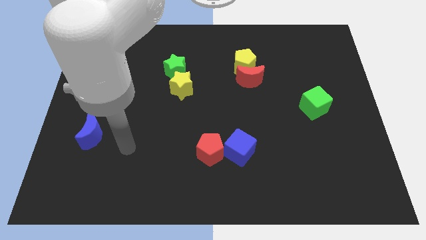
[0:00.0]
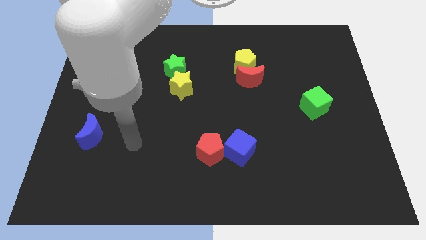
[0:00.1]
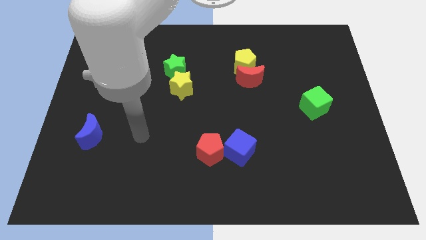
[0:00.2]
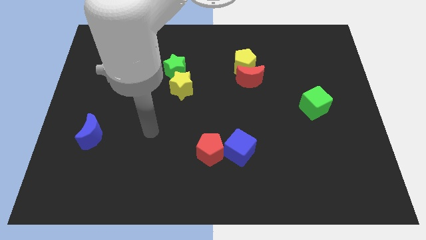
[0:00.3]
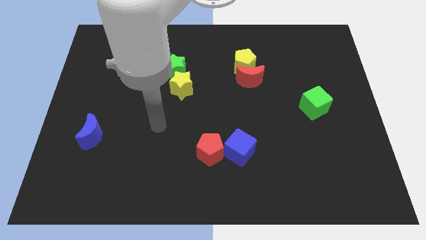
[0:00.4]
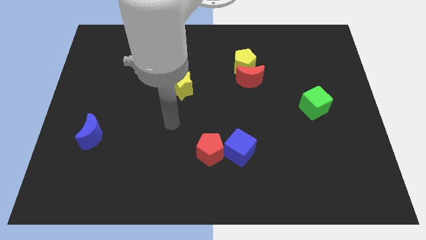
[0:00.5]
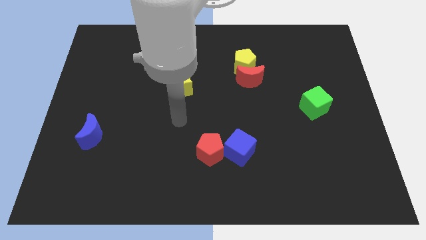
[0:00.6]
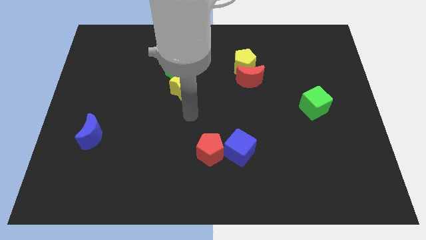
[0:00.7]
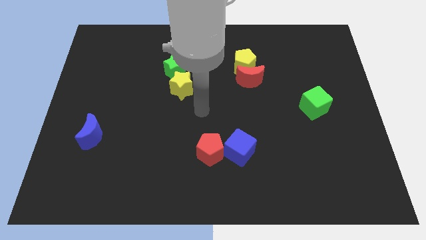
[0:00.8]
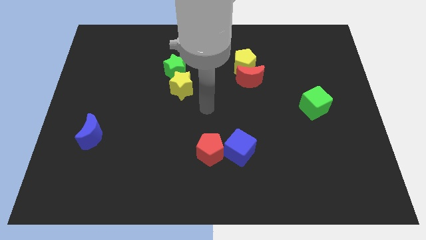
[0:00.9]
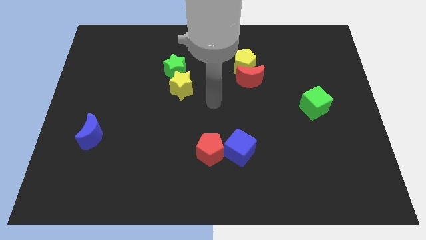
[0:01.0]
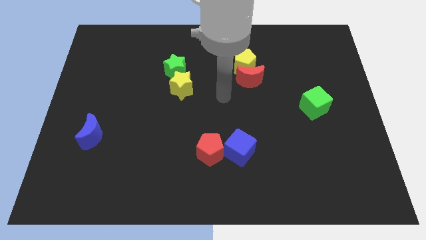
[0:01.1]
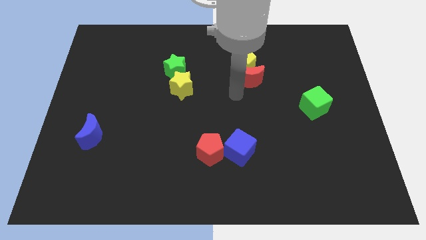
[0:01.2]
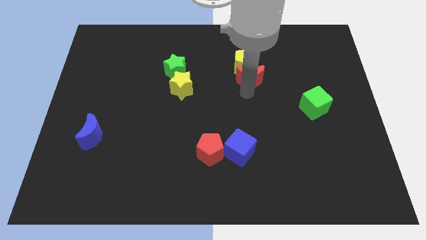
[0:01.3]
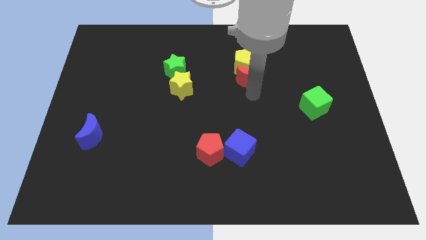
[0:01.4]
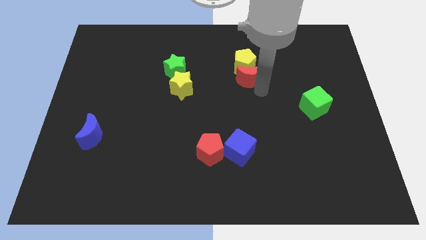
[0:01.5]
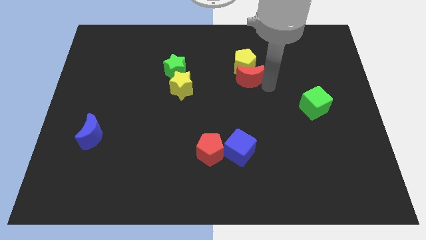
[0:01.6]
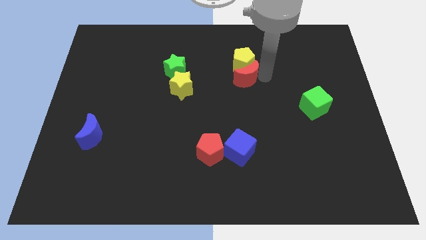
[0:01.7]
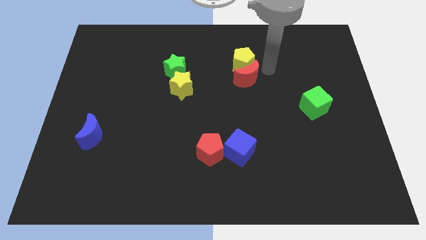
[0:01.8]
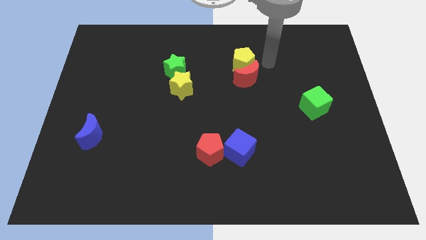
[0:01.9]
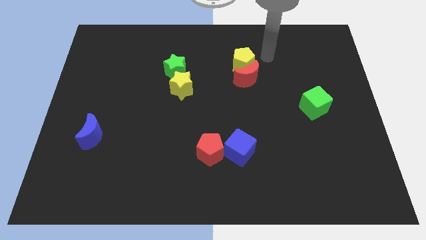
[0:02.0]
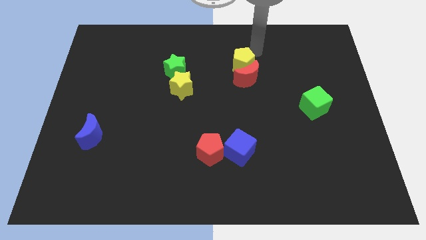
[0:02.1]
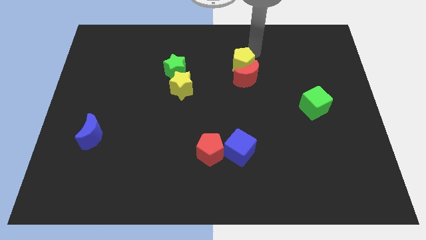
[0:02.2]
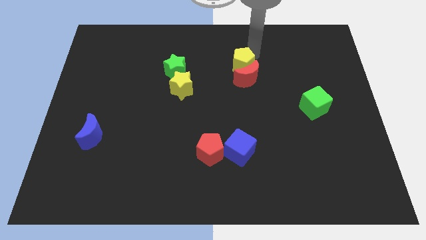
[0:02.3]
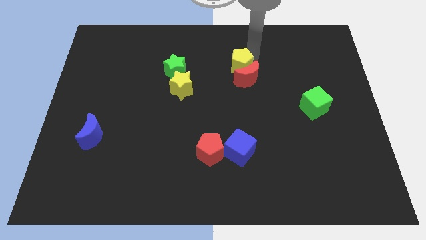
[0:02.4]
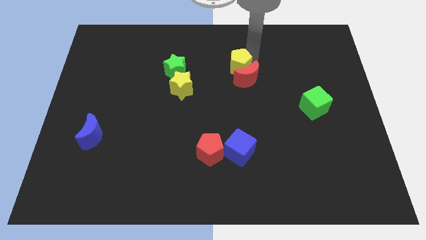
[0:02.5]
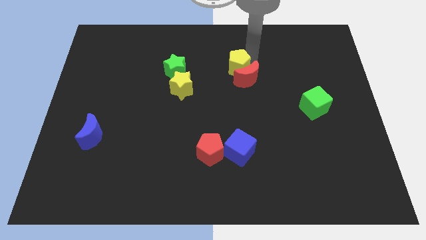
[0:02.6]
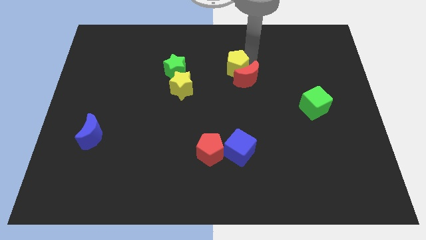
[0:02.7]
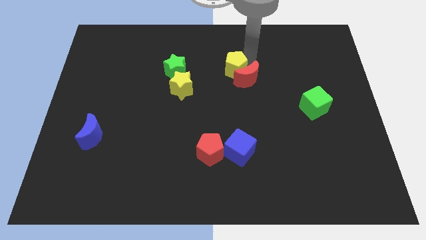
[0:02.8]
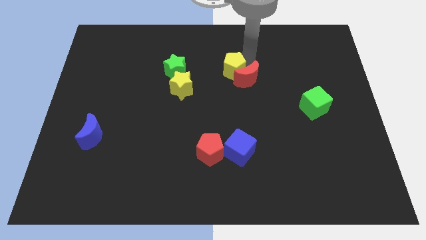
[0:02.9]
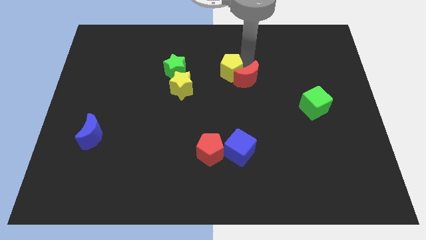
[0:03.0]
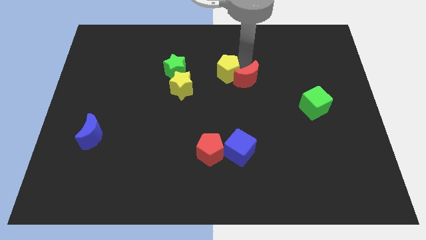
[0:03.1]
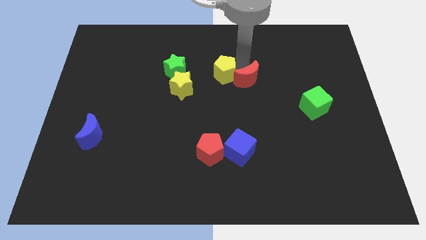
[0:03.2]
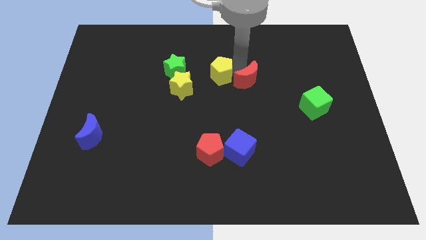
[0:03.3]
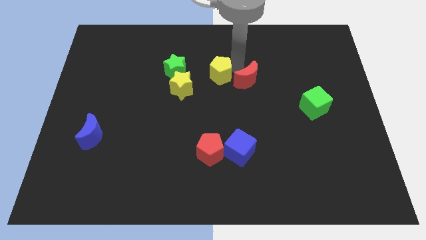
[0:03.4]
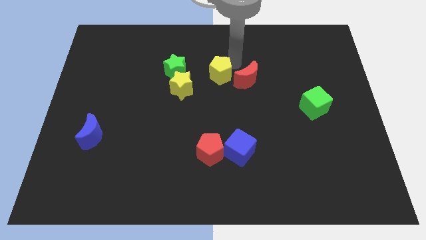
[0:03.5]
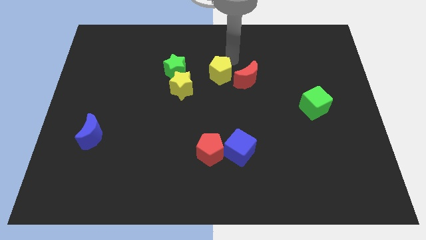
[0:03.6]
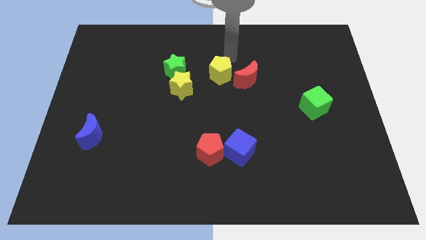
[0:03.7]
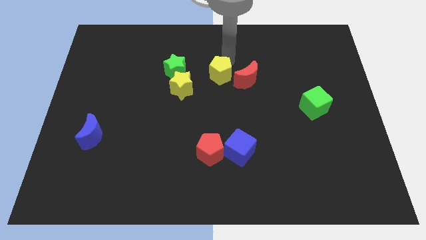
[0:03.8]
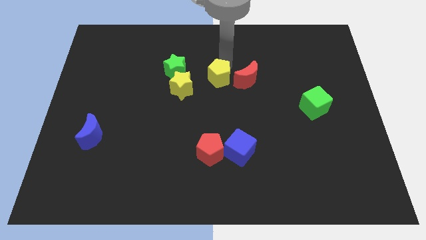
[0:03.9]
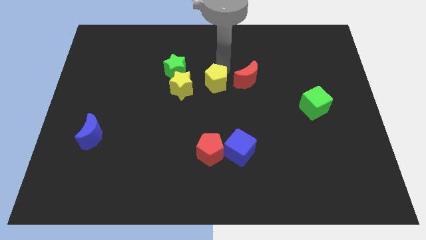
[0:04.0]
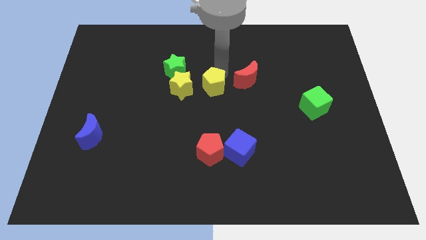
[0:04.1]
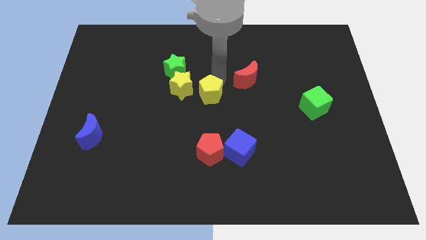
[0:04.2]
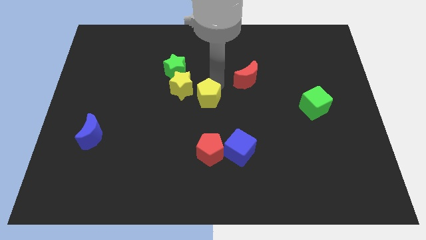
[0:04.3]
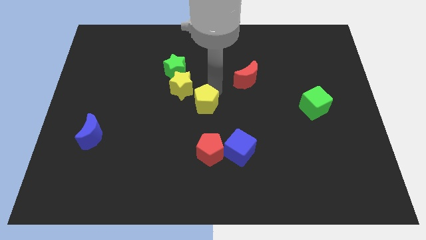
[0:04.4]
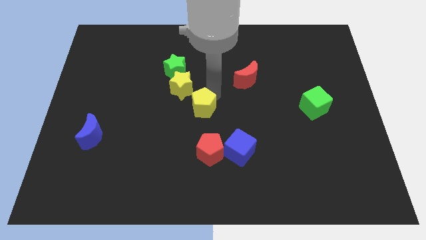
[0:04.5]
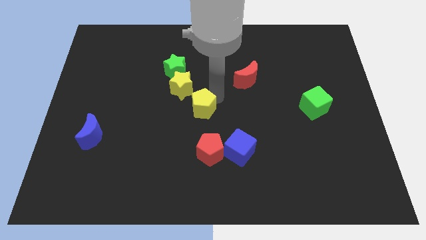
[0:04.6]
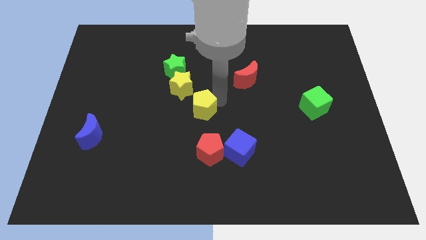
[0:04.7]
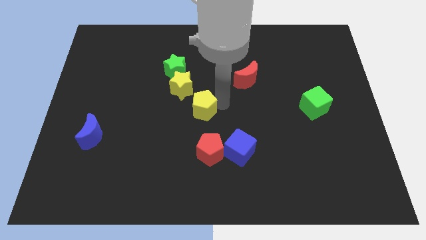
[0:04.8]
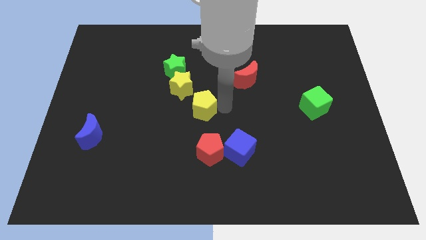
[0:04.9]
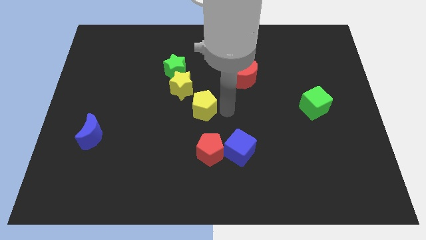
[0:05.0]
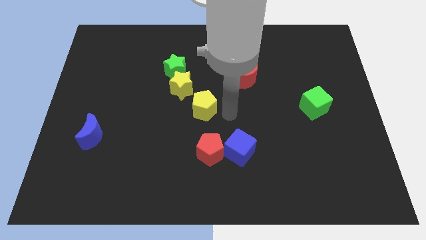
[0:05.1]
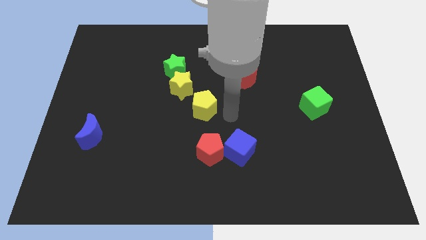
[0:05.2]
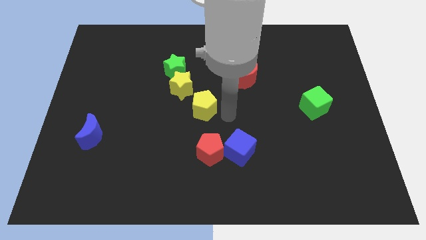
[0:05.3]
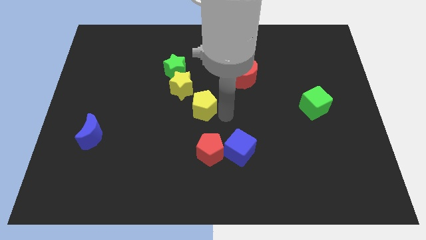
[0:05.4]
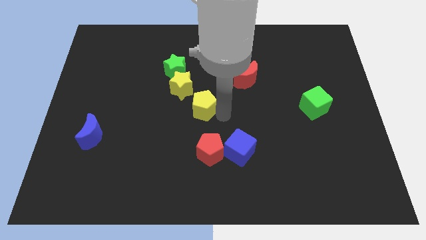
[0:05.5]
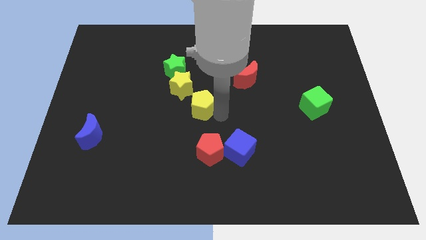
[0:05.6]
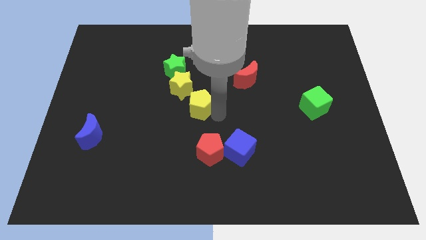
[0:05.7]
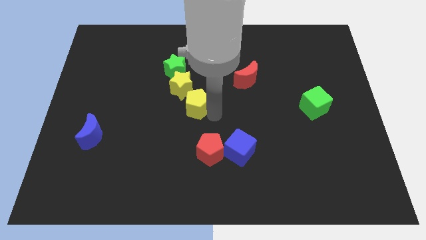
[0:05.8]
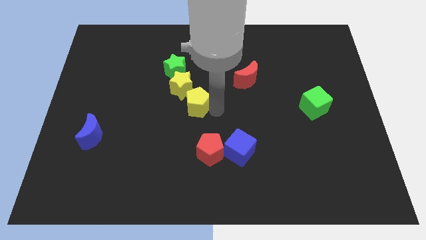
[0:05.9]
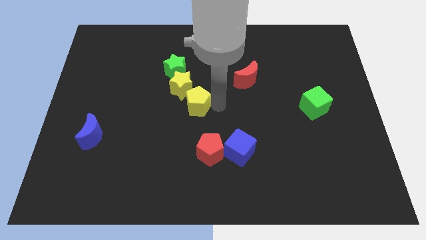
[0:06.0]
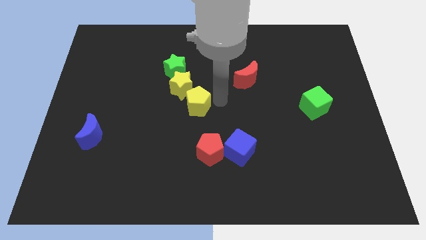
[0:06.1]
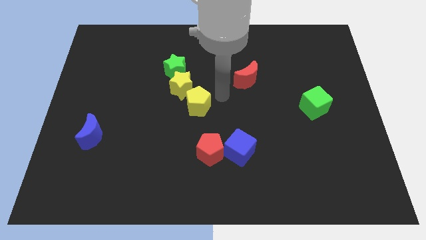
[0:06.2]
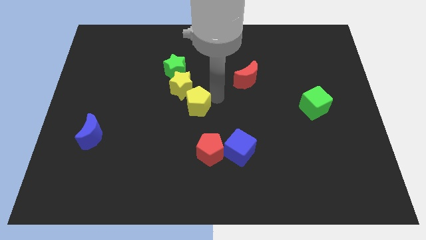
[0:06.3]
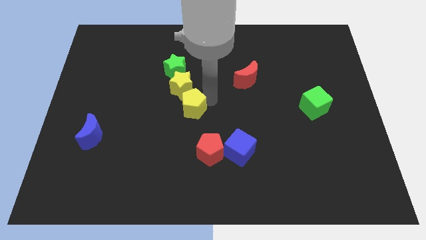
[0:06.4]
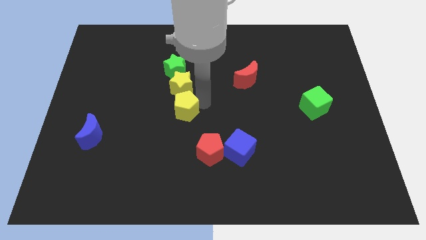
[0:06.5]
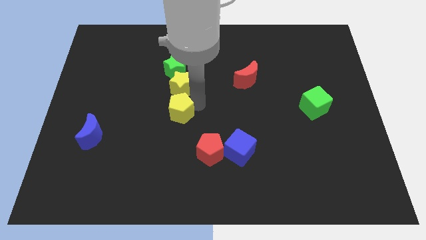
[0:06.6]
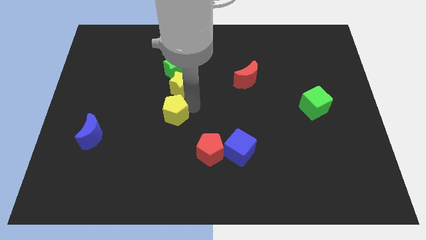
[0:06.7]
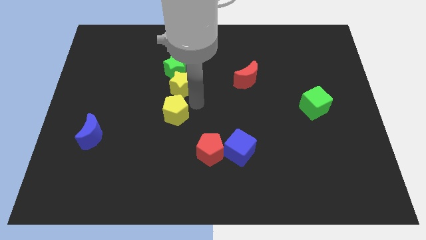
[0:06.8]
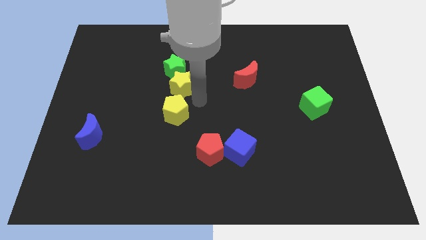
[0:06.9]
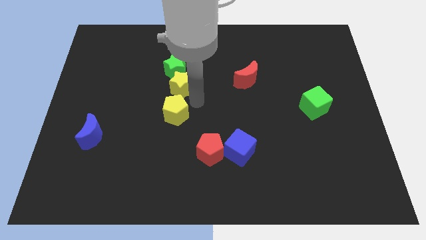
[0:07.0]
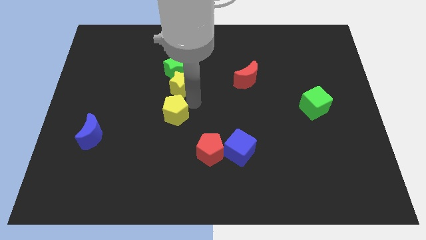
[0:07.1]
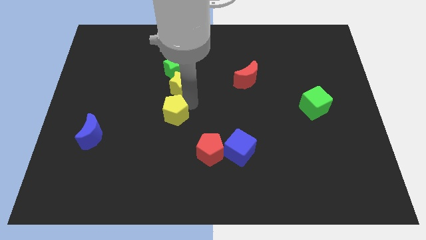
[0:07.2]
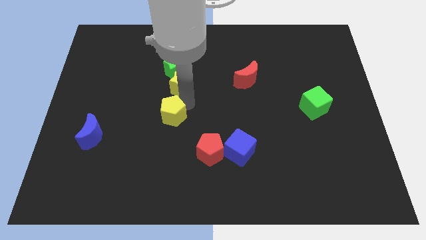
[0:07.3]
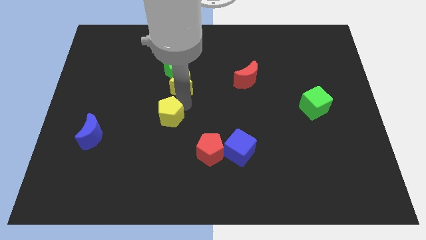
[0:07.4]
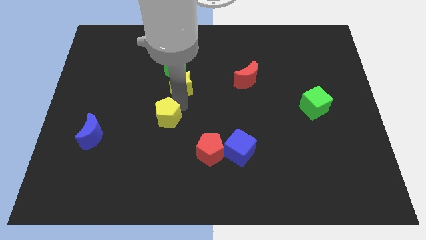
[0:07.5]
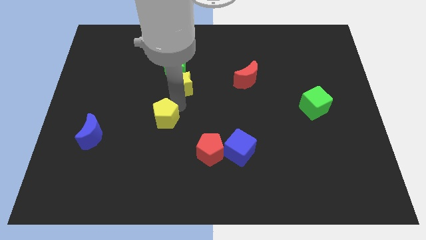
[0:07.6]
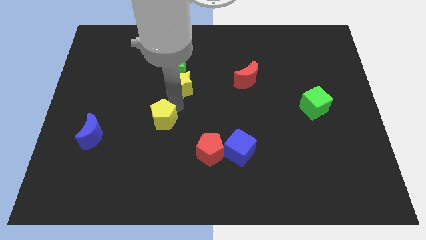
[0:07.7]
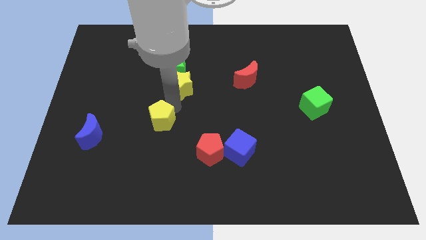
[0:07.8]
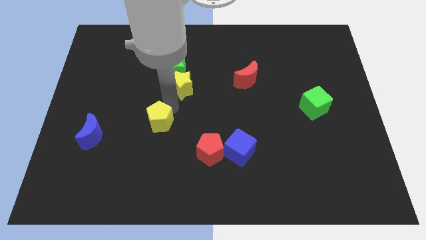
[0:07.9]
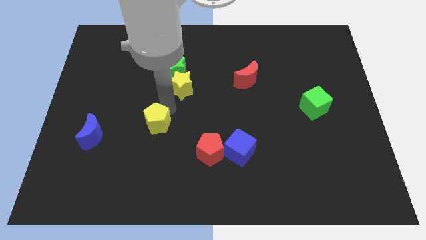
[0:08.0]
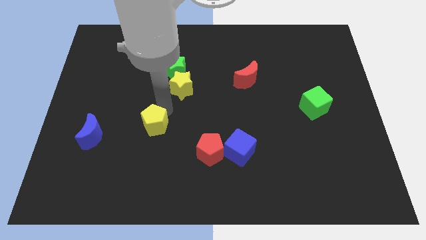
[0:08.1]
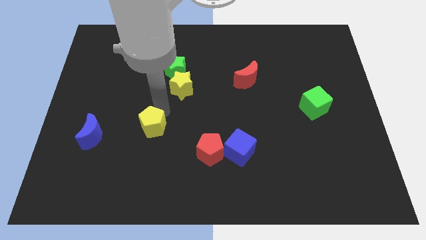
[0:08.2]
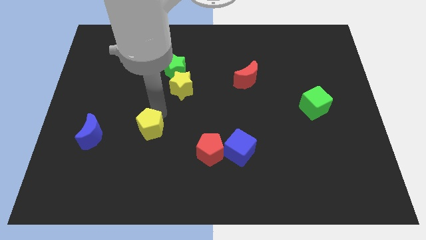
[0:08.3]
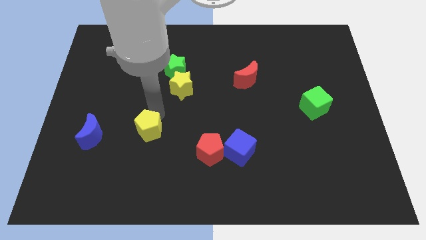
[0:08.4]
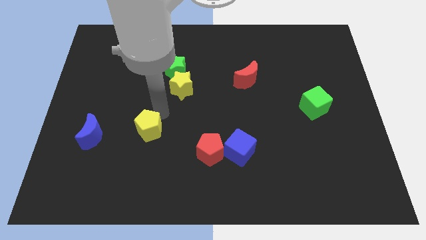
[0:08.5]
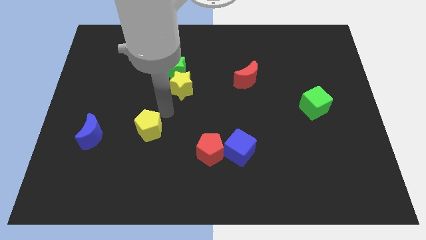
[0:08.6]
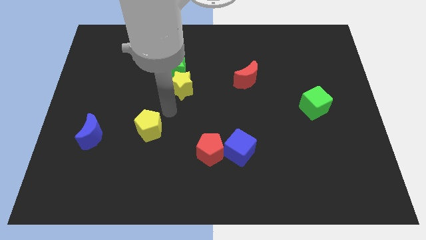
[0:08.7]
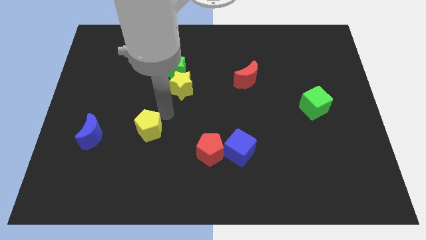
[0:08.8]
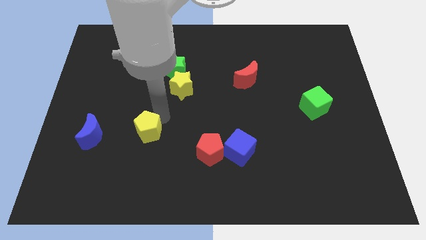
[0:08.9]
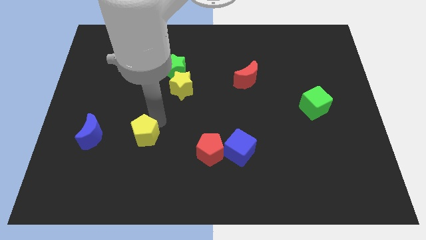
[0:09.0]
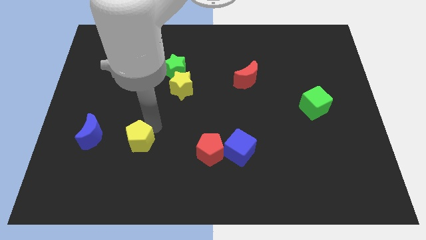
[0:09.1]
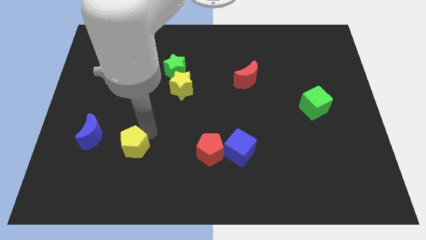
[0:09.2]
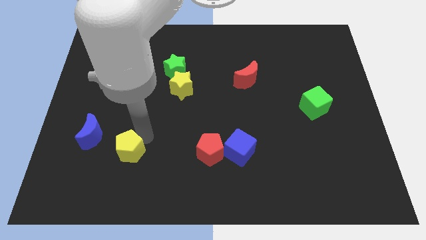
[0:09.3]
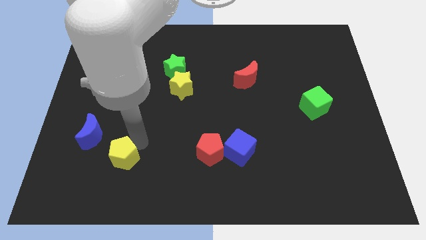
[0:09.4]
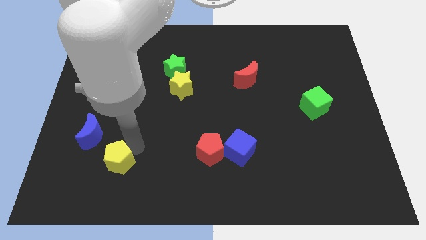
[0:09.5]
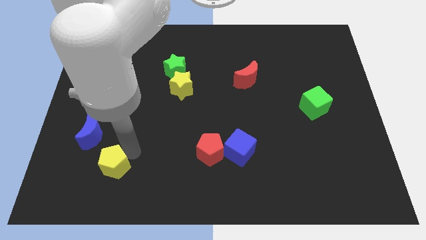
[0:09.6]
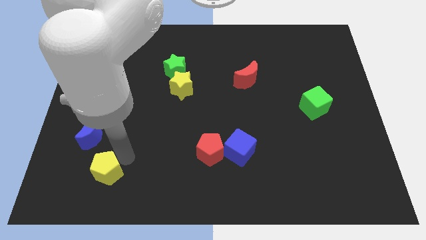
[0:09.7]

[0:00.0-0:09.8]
put the yellow pentagon below the blue moon
